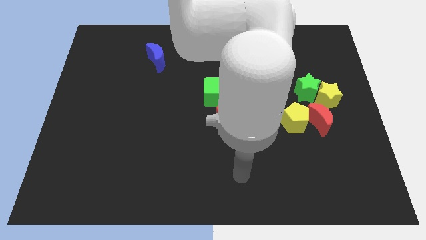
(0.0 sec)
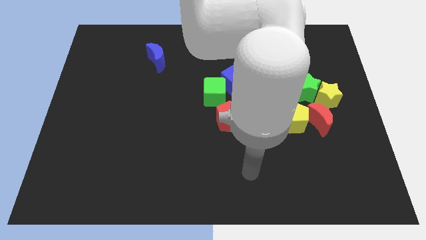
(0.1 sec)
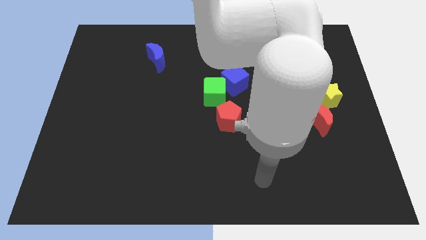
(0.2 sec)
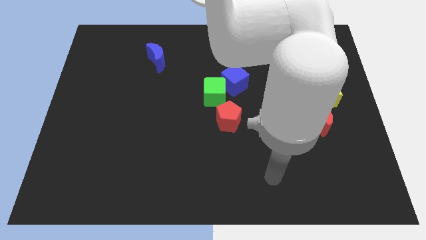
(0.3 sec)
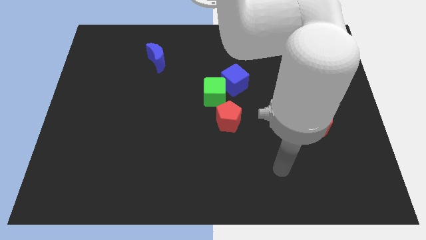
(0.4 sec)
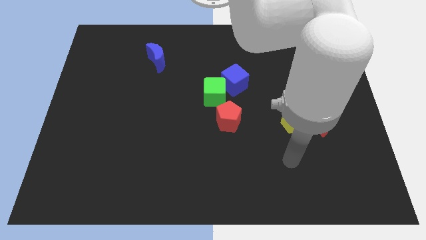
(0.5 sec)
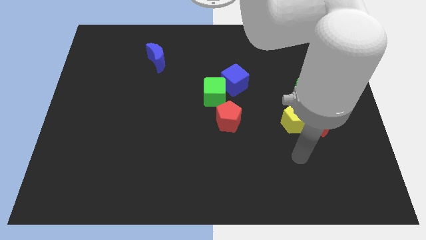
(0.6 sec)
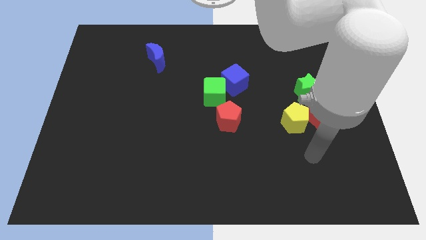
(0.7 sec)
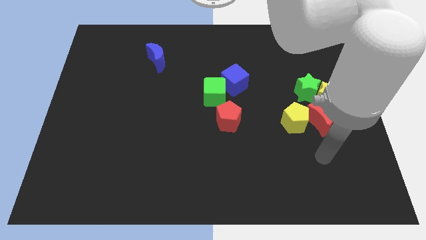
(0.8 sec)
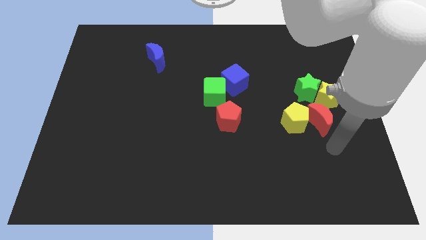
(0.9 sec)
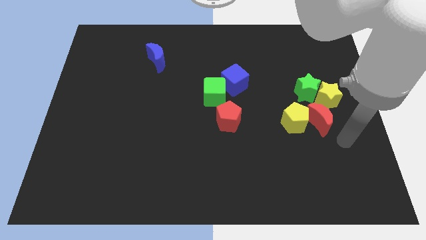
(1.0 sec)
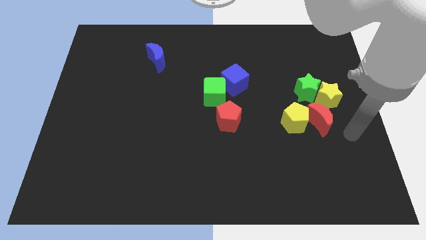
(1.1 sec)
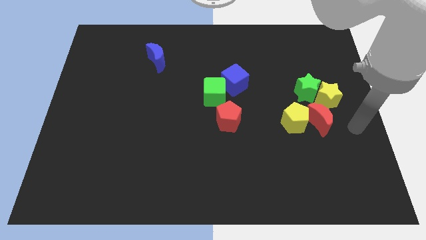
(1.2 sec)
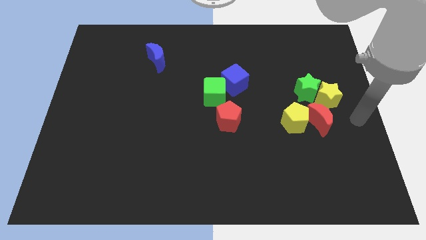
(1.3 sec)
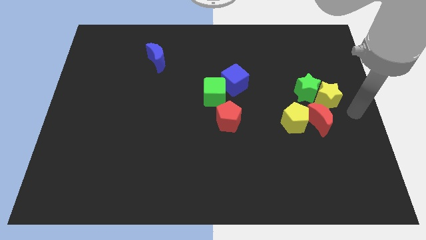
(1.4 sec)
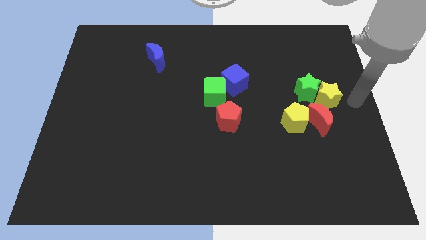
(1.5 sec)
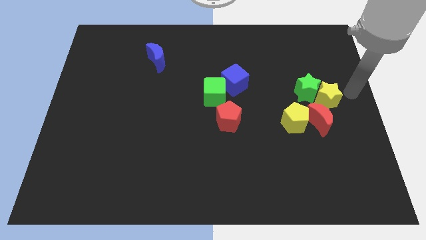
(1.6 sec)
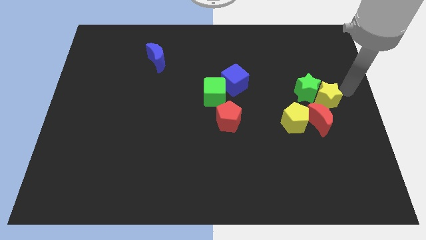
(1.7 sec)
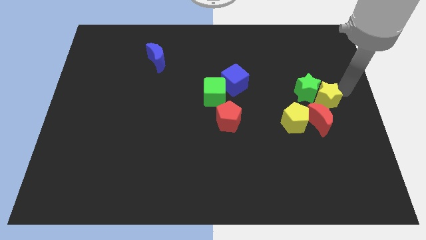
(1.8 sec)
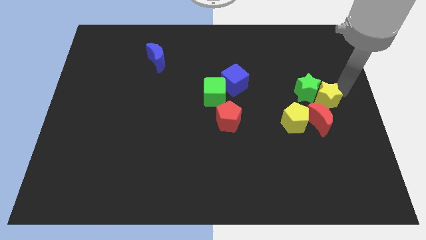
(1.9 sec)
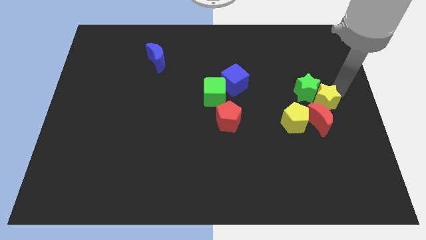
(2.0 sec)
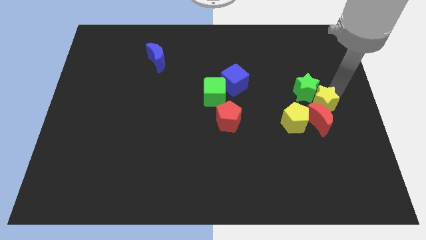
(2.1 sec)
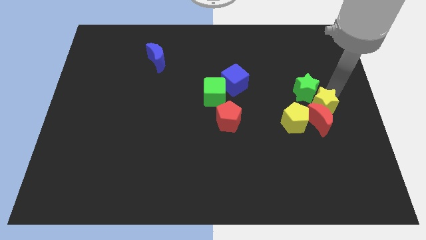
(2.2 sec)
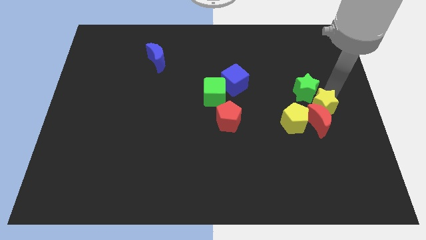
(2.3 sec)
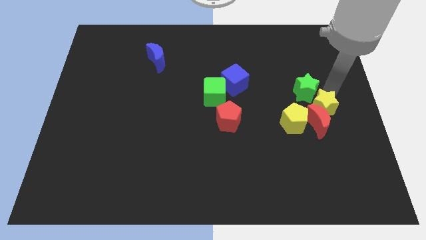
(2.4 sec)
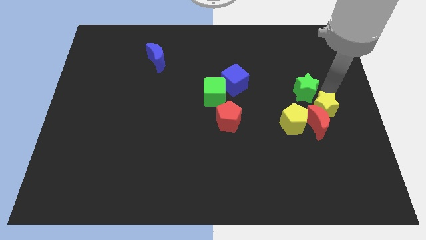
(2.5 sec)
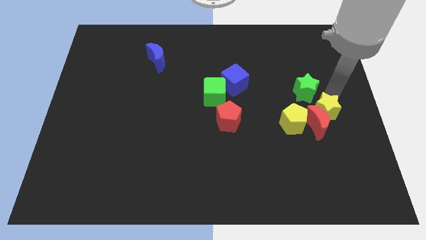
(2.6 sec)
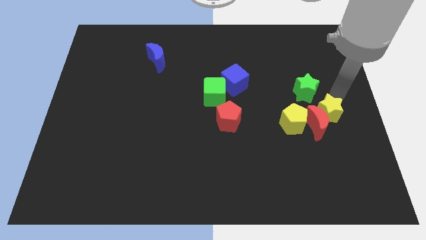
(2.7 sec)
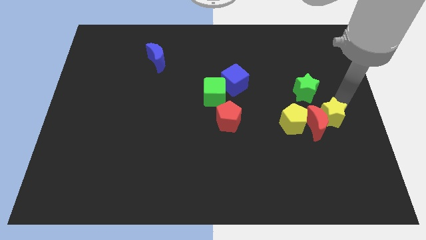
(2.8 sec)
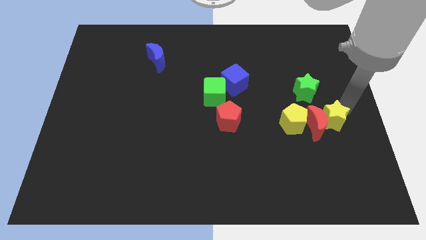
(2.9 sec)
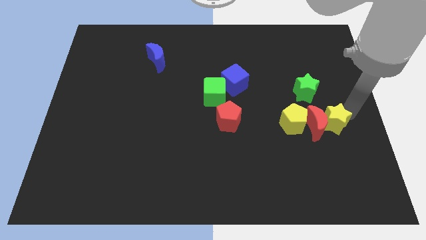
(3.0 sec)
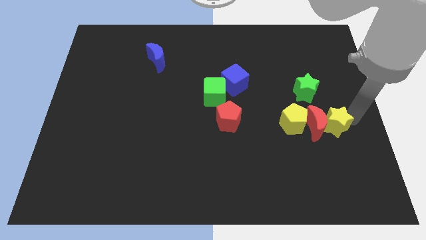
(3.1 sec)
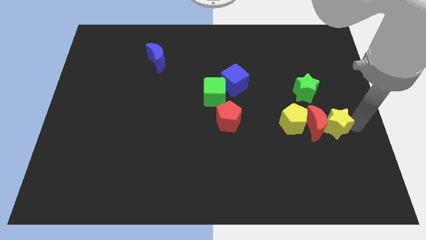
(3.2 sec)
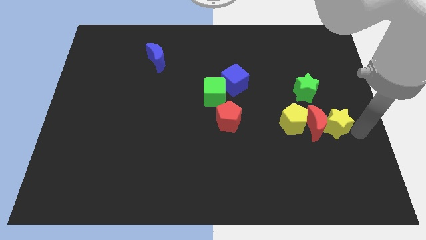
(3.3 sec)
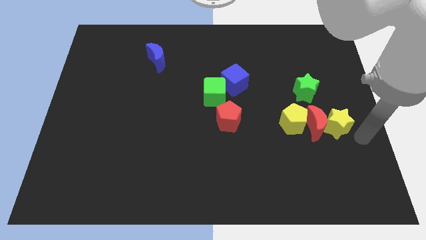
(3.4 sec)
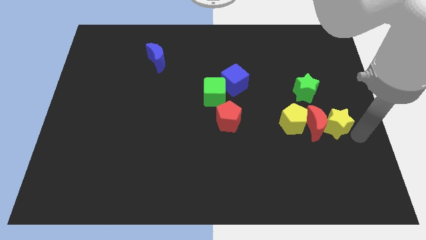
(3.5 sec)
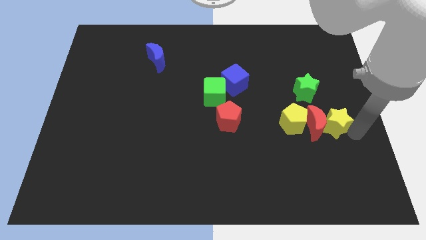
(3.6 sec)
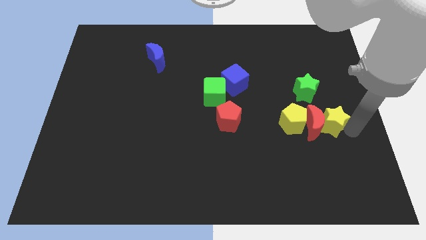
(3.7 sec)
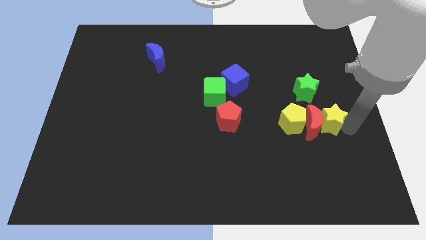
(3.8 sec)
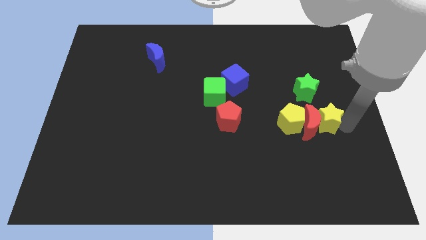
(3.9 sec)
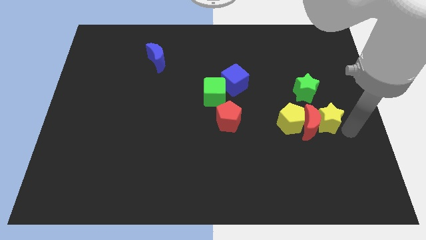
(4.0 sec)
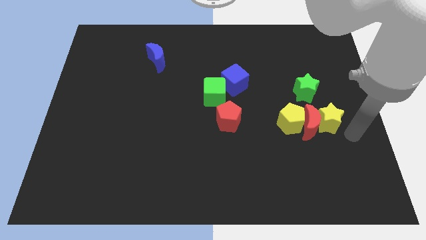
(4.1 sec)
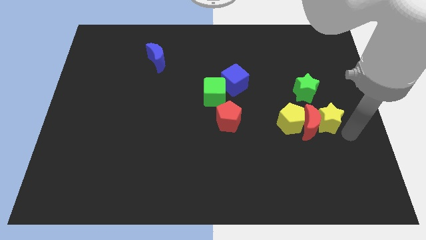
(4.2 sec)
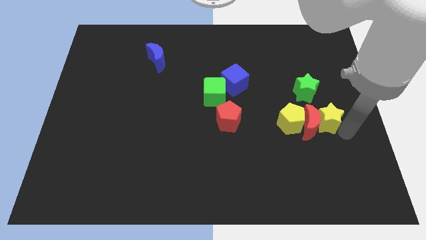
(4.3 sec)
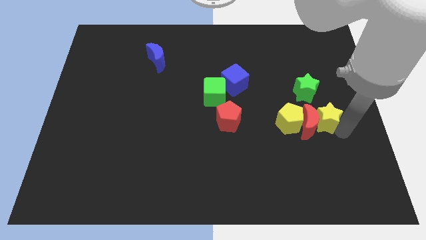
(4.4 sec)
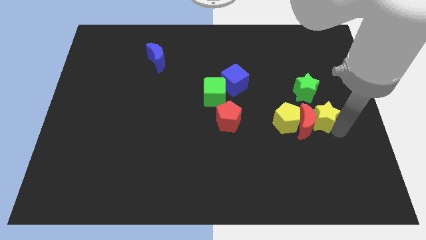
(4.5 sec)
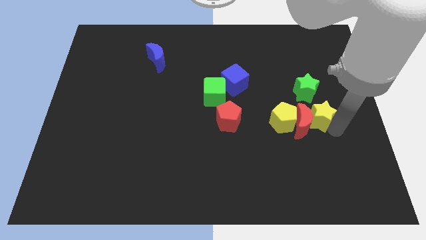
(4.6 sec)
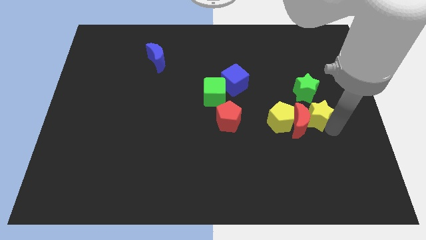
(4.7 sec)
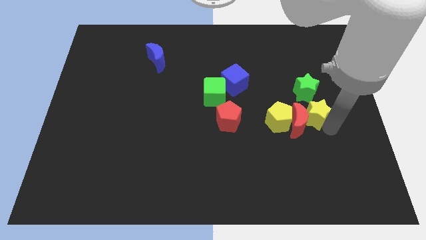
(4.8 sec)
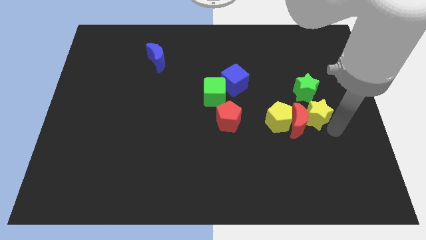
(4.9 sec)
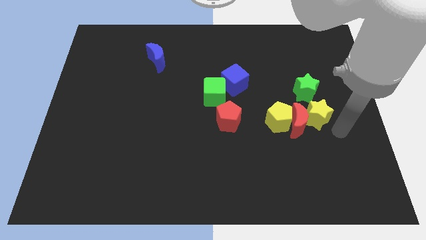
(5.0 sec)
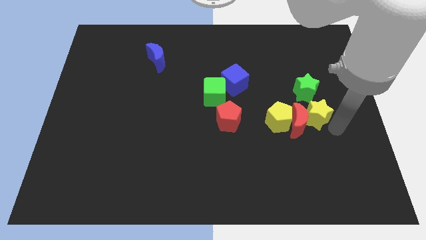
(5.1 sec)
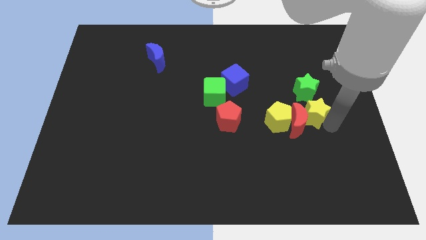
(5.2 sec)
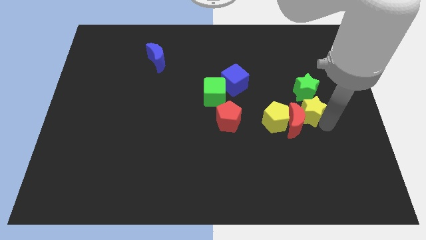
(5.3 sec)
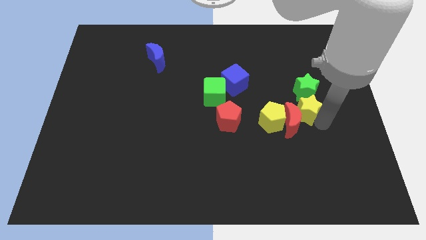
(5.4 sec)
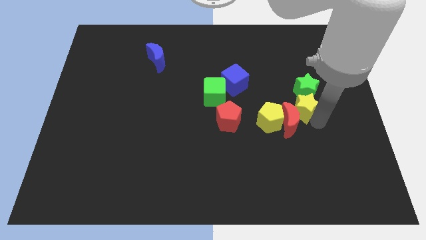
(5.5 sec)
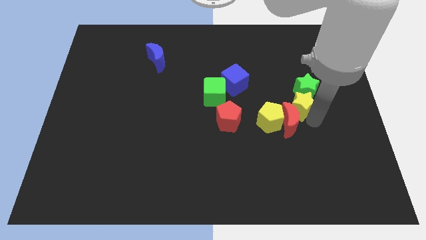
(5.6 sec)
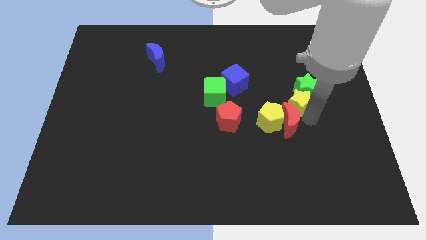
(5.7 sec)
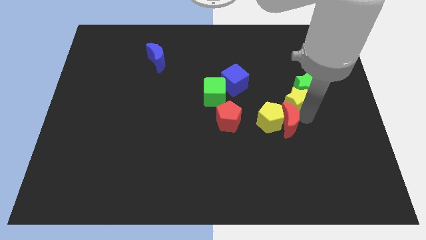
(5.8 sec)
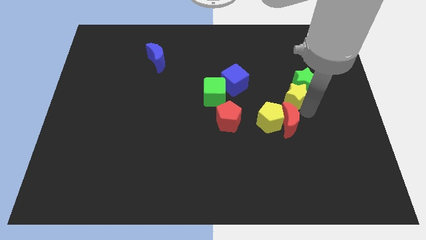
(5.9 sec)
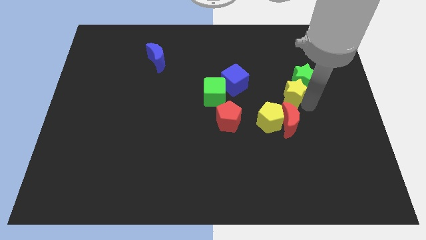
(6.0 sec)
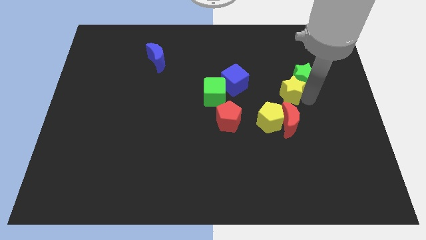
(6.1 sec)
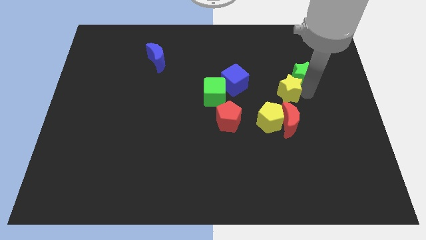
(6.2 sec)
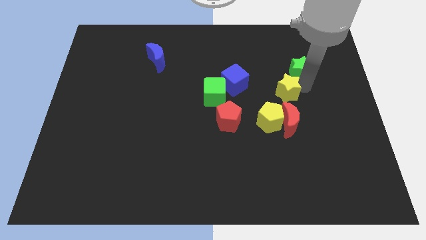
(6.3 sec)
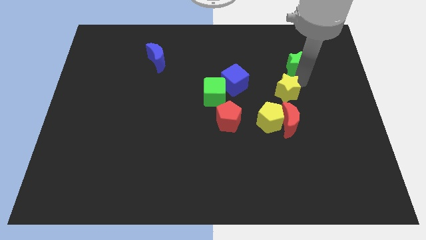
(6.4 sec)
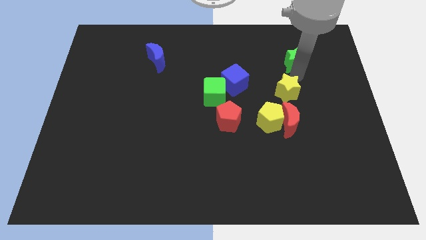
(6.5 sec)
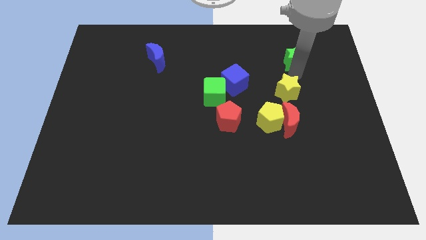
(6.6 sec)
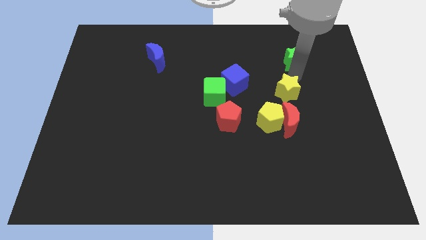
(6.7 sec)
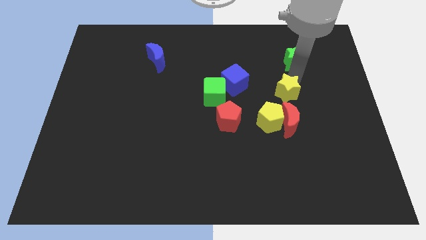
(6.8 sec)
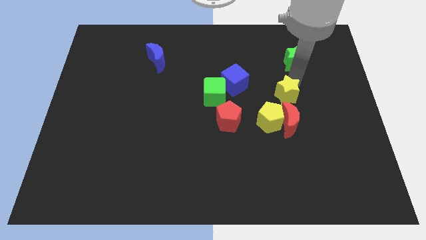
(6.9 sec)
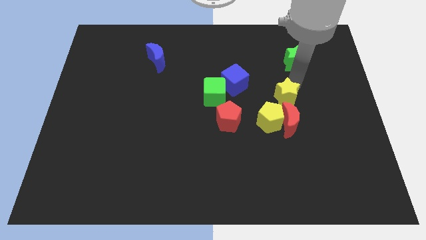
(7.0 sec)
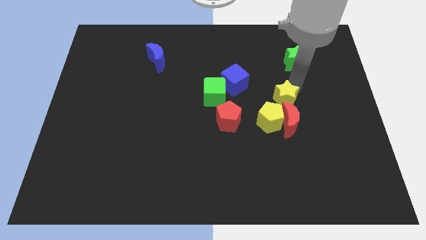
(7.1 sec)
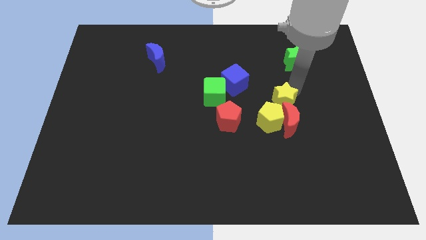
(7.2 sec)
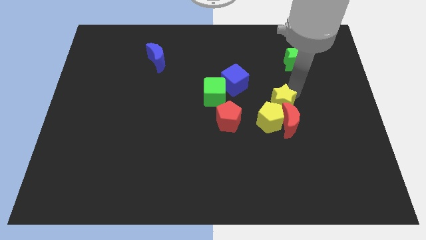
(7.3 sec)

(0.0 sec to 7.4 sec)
push the yellow star next to the yellow pentagon
